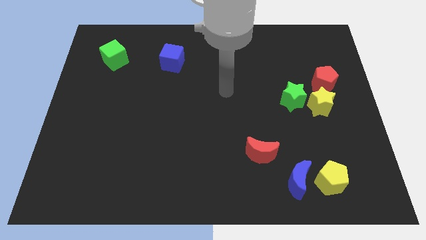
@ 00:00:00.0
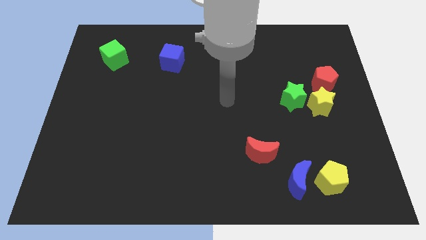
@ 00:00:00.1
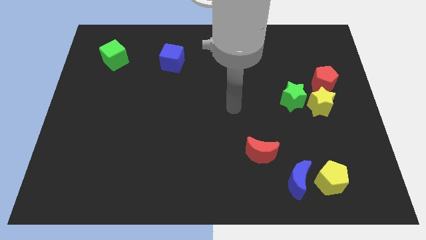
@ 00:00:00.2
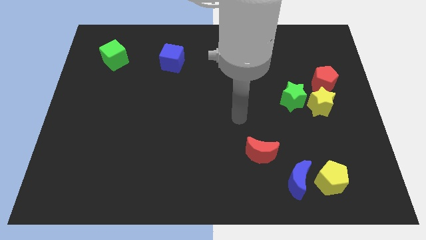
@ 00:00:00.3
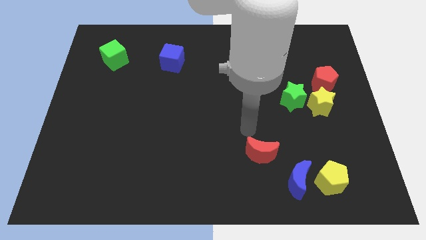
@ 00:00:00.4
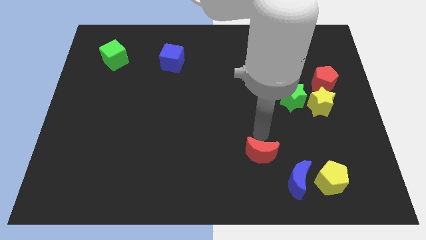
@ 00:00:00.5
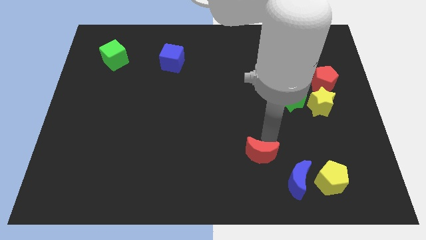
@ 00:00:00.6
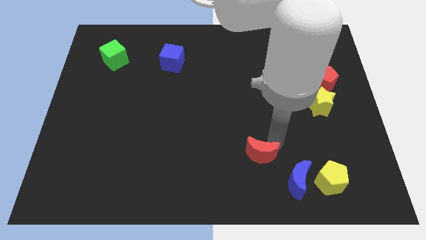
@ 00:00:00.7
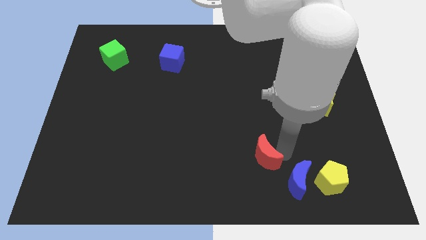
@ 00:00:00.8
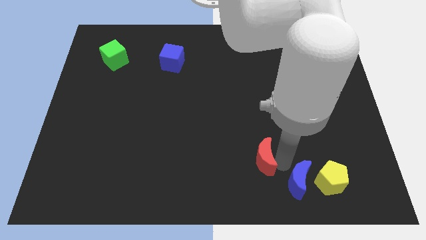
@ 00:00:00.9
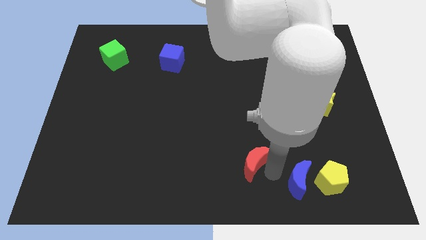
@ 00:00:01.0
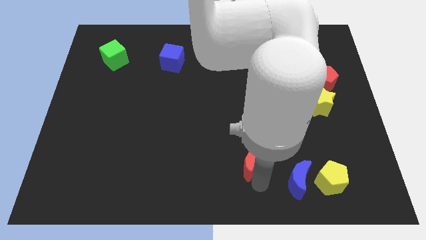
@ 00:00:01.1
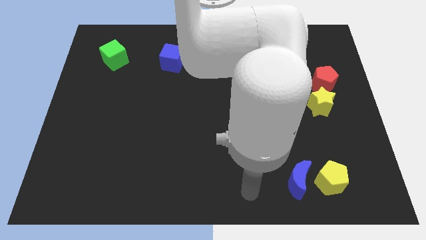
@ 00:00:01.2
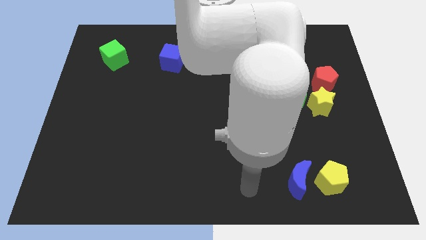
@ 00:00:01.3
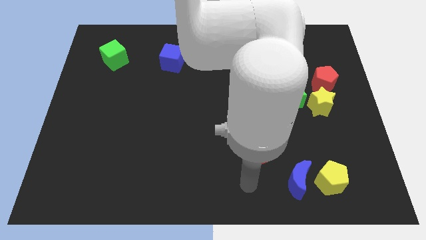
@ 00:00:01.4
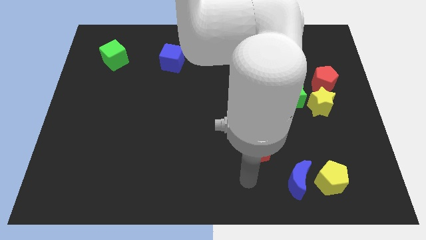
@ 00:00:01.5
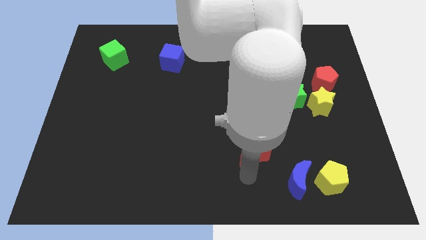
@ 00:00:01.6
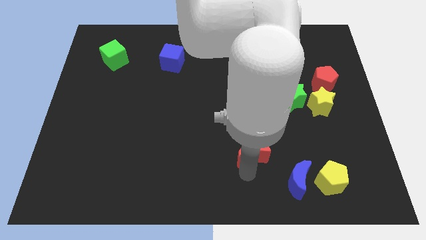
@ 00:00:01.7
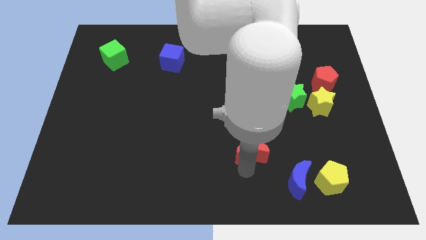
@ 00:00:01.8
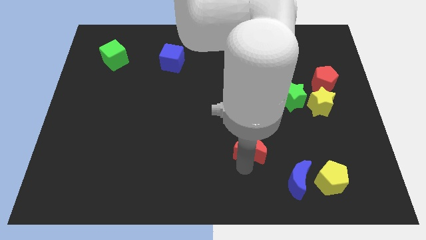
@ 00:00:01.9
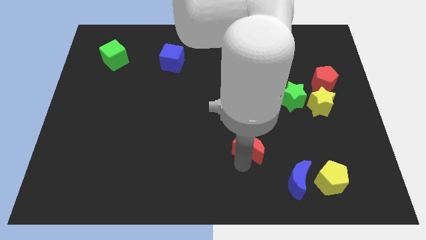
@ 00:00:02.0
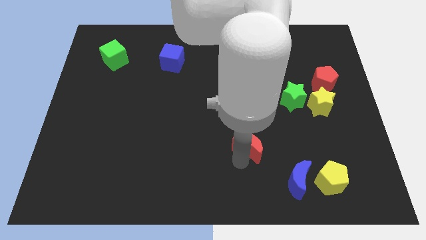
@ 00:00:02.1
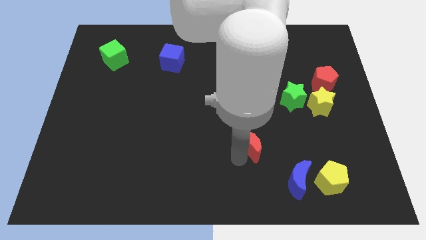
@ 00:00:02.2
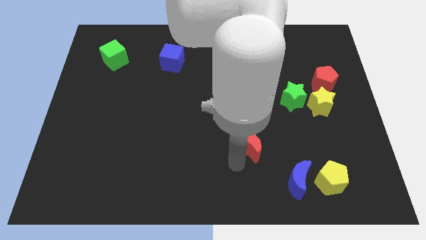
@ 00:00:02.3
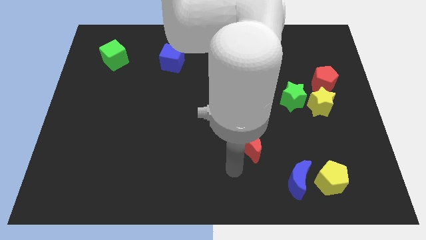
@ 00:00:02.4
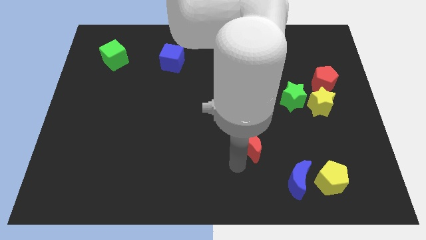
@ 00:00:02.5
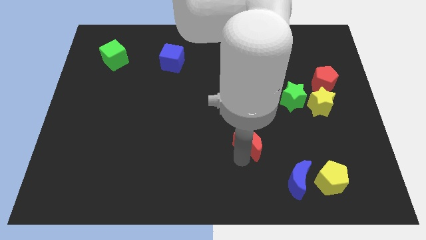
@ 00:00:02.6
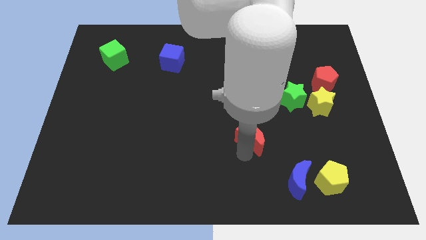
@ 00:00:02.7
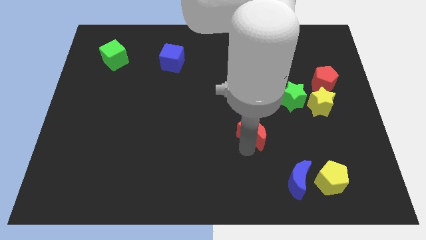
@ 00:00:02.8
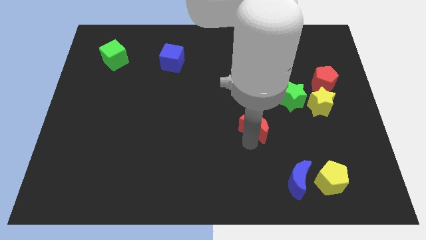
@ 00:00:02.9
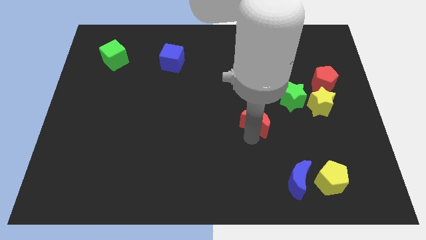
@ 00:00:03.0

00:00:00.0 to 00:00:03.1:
move the red moon a bit up

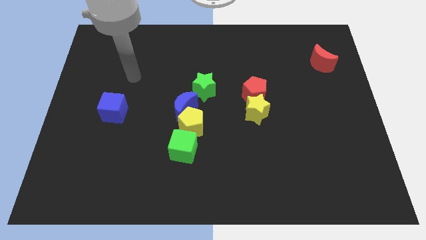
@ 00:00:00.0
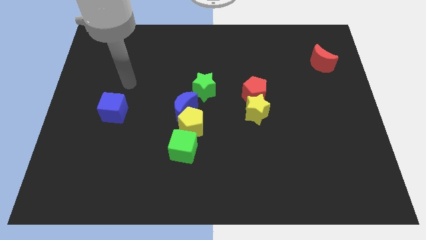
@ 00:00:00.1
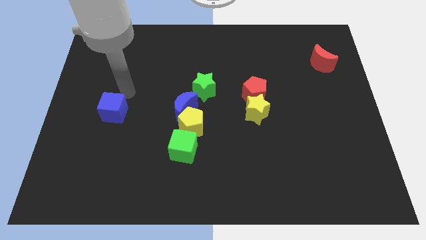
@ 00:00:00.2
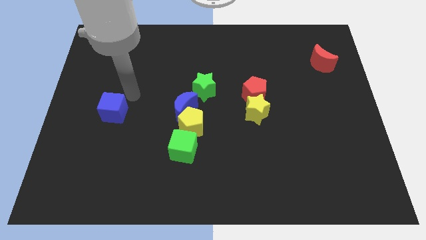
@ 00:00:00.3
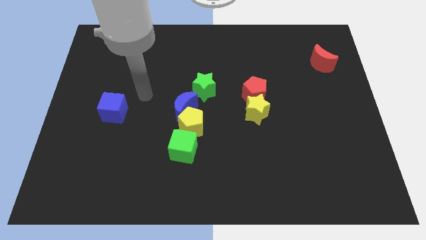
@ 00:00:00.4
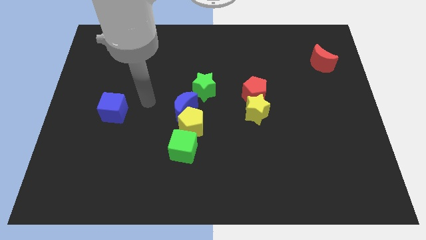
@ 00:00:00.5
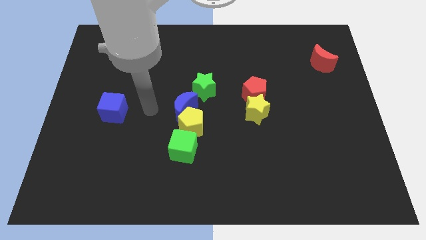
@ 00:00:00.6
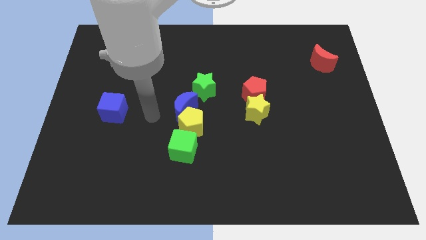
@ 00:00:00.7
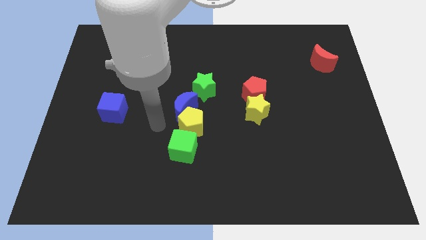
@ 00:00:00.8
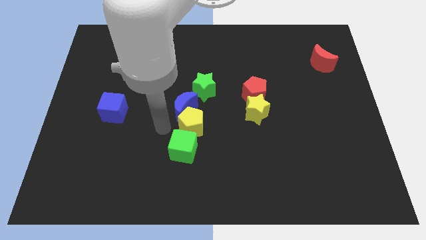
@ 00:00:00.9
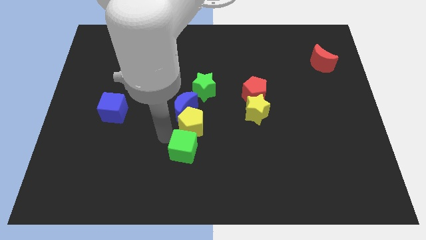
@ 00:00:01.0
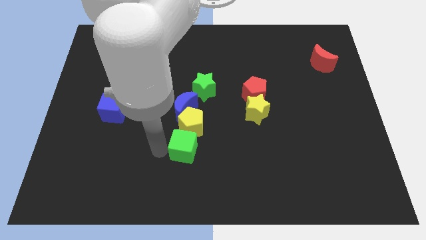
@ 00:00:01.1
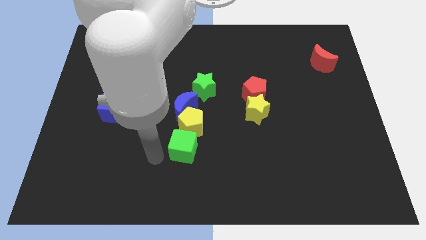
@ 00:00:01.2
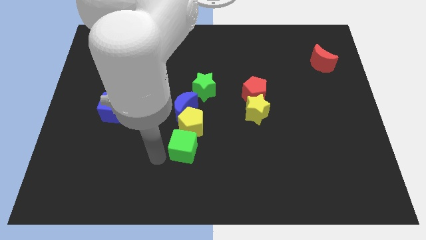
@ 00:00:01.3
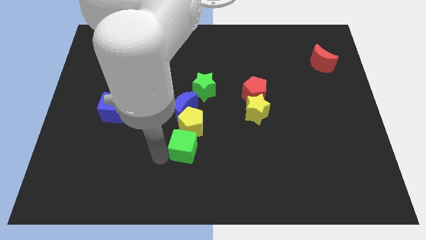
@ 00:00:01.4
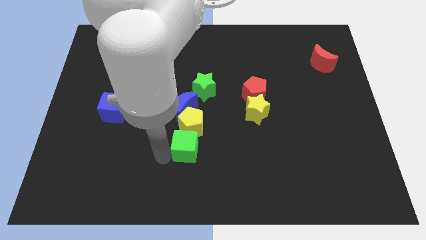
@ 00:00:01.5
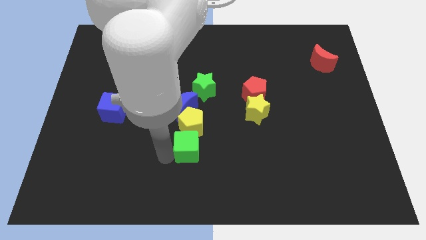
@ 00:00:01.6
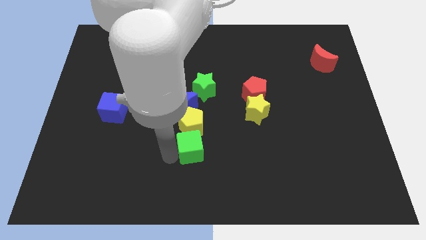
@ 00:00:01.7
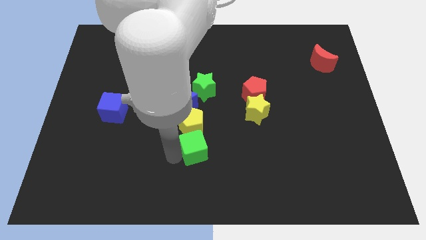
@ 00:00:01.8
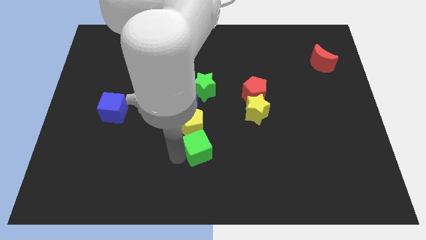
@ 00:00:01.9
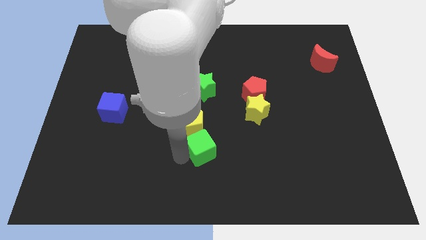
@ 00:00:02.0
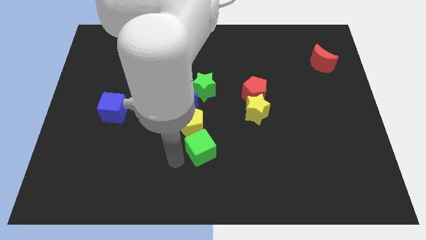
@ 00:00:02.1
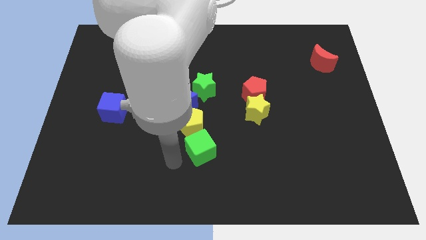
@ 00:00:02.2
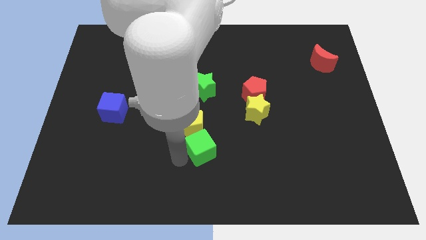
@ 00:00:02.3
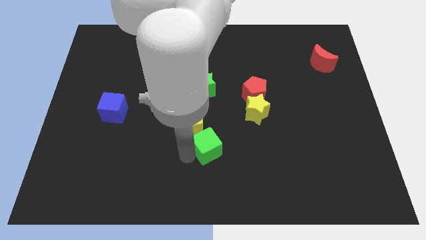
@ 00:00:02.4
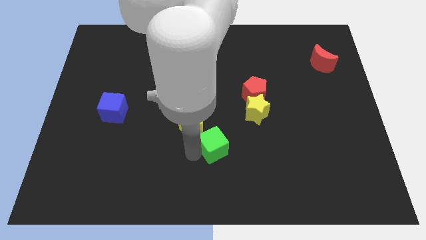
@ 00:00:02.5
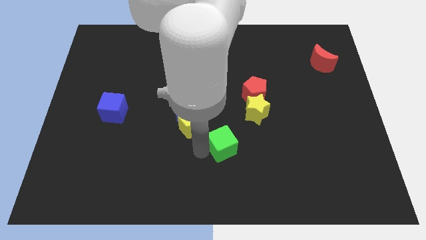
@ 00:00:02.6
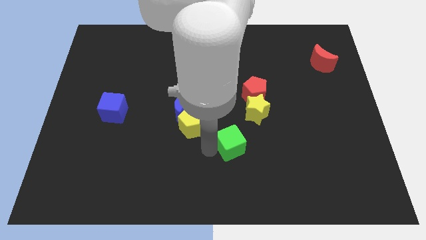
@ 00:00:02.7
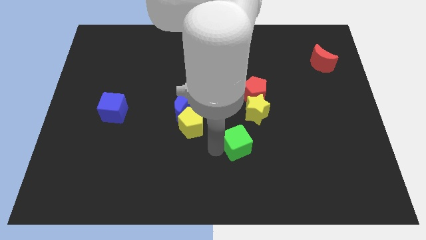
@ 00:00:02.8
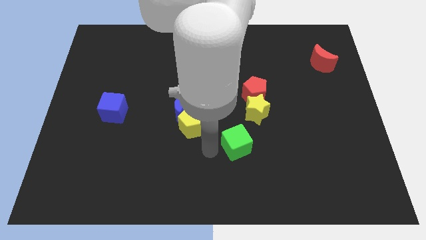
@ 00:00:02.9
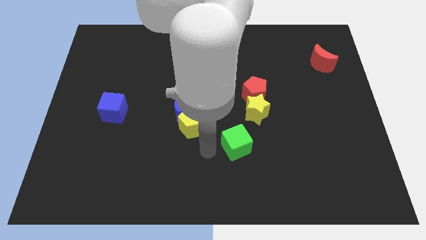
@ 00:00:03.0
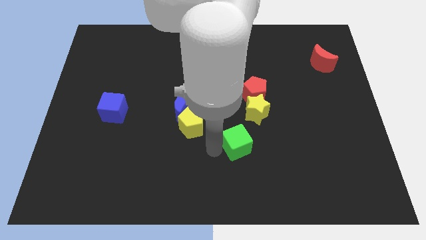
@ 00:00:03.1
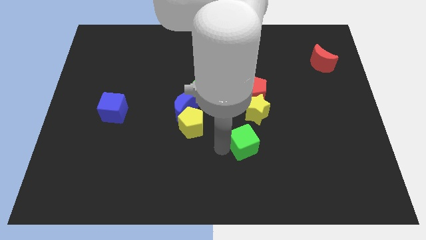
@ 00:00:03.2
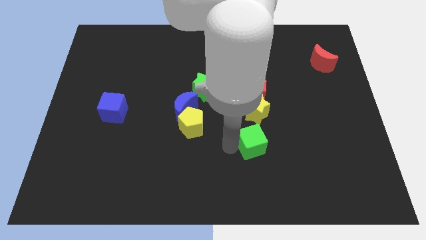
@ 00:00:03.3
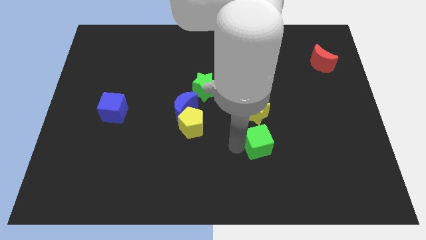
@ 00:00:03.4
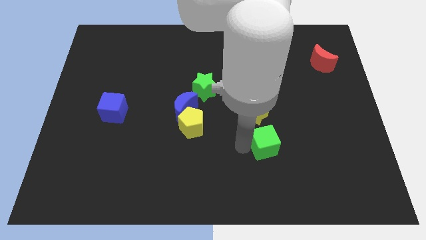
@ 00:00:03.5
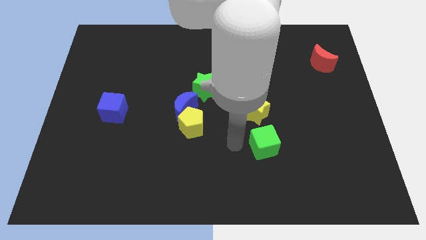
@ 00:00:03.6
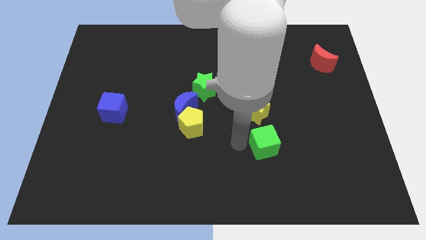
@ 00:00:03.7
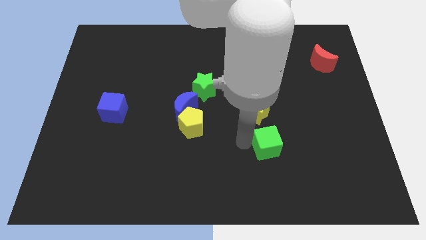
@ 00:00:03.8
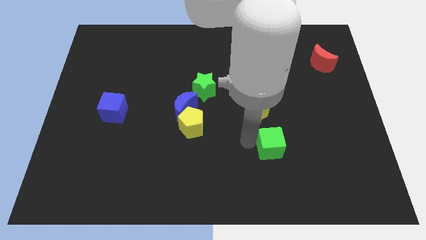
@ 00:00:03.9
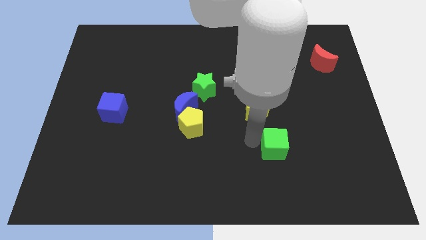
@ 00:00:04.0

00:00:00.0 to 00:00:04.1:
slide the green cube right

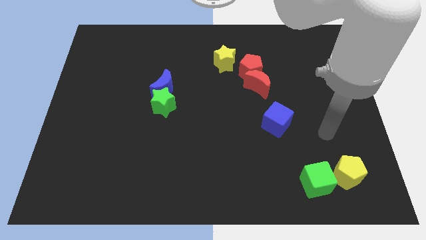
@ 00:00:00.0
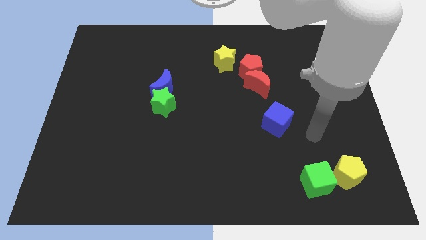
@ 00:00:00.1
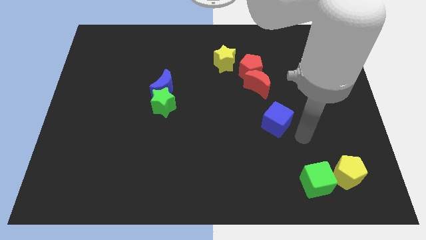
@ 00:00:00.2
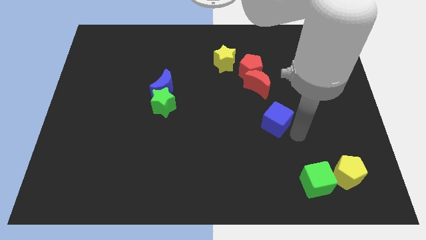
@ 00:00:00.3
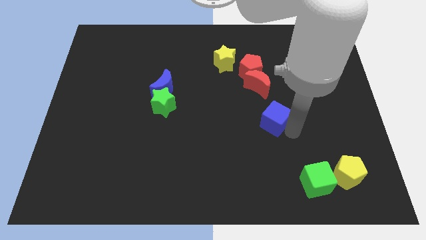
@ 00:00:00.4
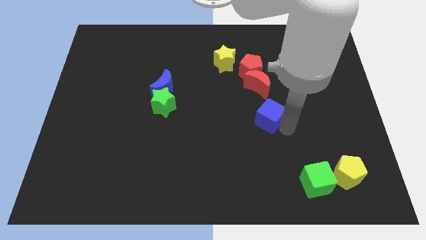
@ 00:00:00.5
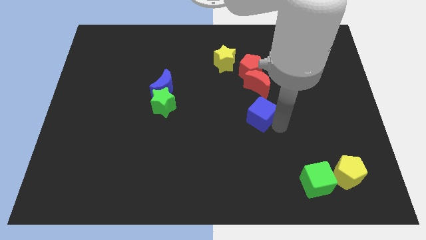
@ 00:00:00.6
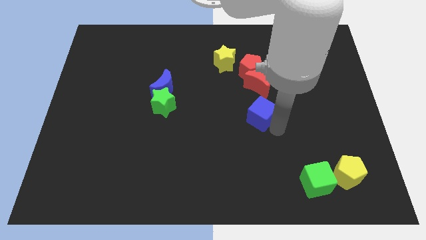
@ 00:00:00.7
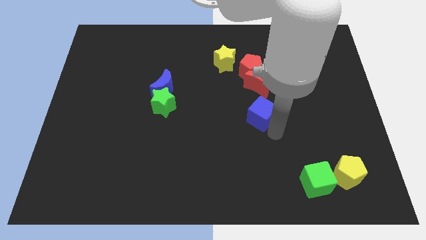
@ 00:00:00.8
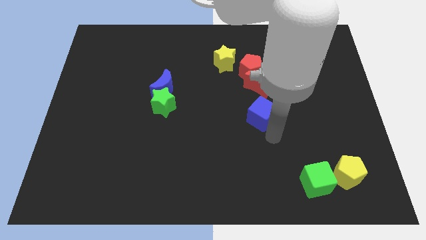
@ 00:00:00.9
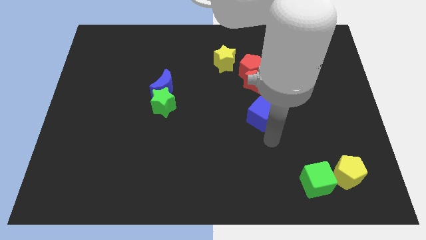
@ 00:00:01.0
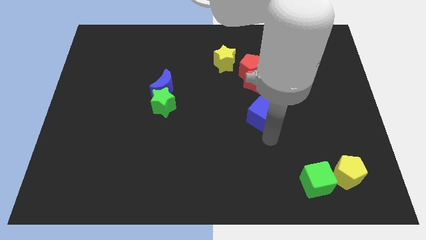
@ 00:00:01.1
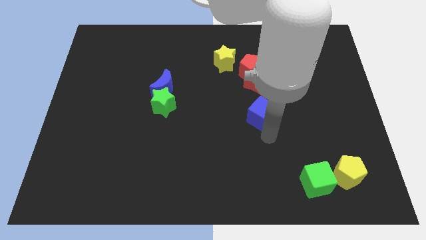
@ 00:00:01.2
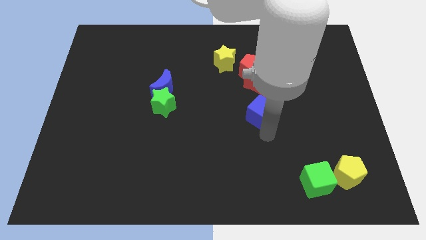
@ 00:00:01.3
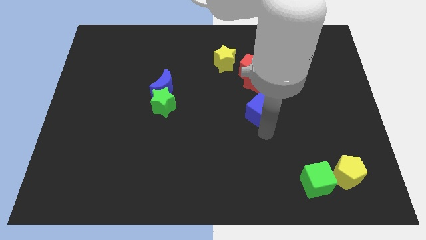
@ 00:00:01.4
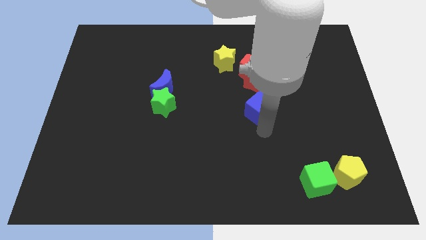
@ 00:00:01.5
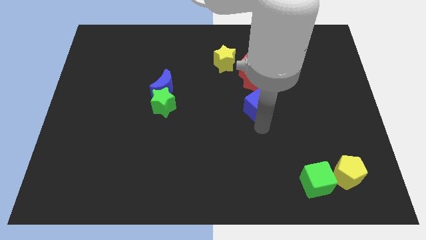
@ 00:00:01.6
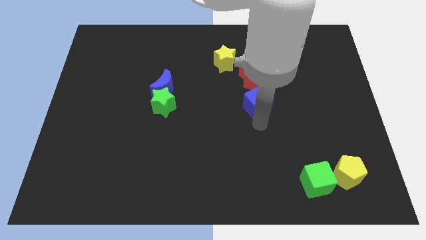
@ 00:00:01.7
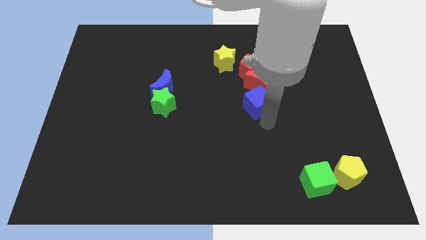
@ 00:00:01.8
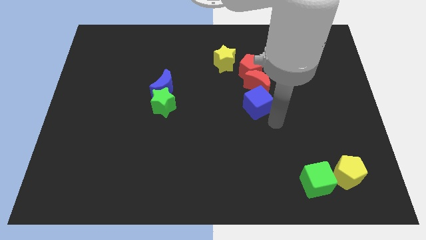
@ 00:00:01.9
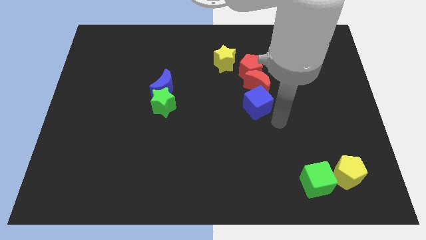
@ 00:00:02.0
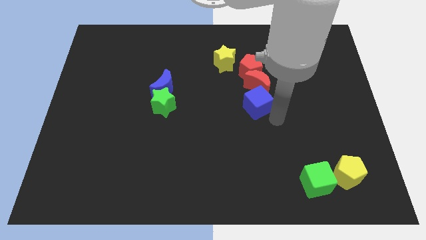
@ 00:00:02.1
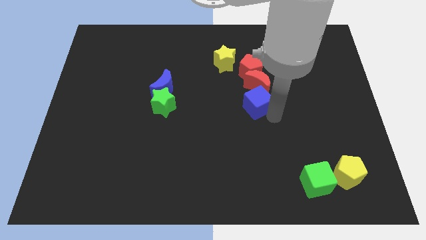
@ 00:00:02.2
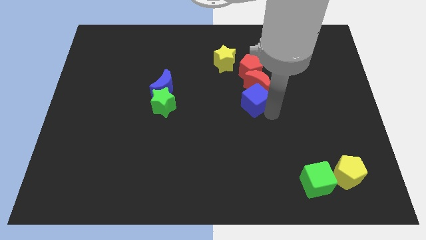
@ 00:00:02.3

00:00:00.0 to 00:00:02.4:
slide the blue cube diagonally upwards and to the left somewhat
